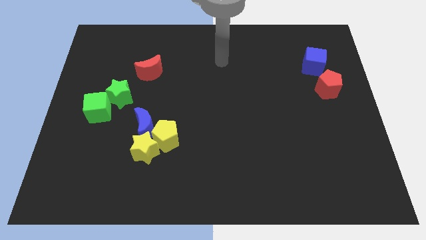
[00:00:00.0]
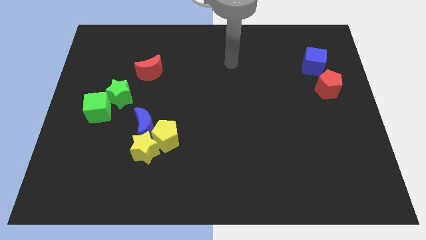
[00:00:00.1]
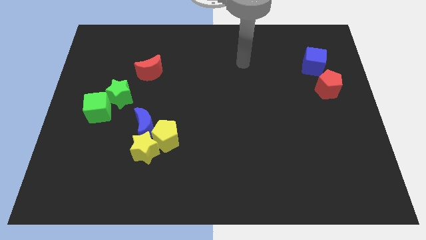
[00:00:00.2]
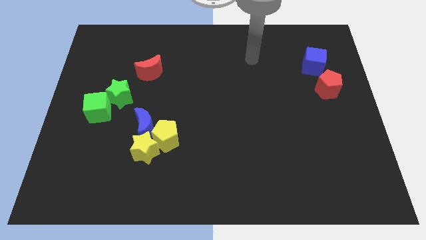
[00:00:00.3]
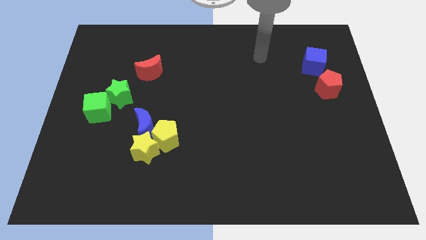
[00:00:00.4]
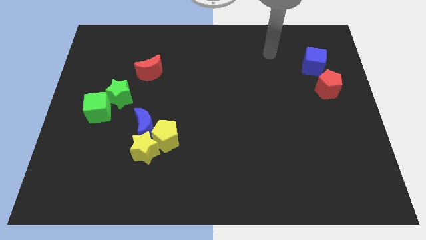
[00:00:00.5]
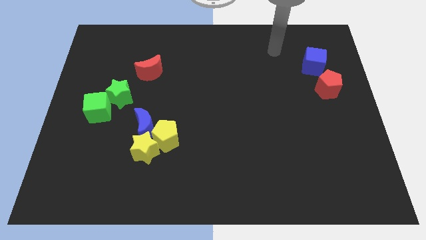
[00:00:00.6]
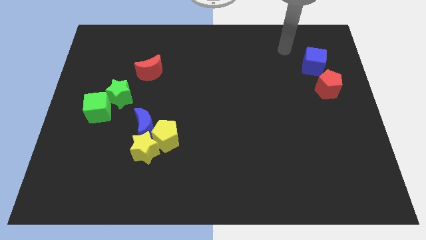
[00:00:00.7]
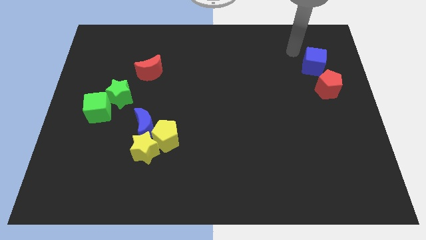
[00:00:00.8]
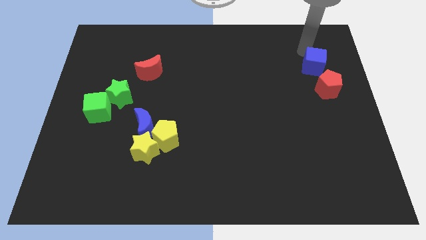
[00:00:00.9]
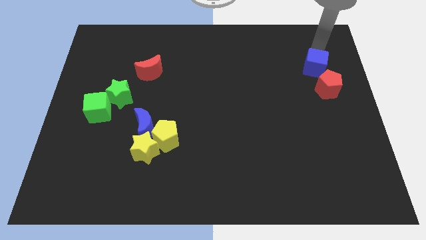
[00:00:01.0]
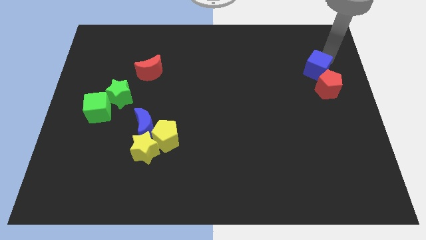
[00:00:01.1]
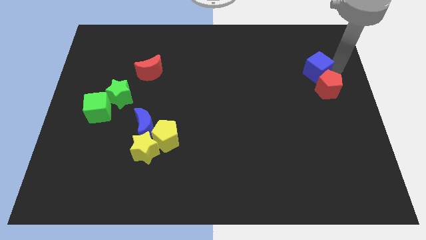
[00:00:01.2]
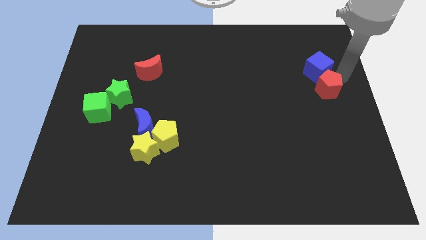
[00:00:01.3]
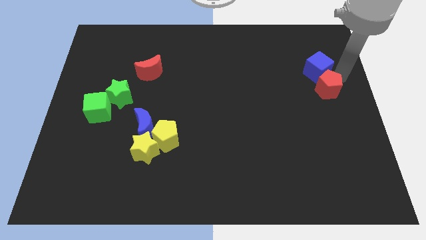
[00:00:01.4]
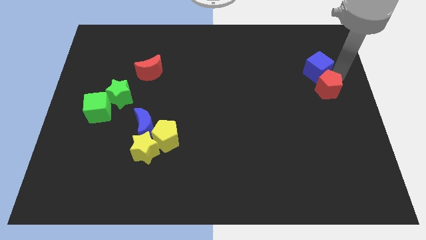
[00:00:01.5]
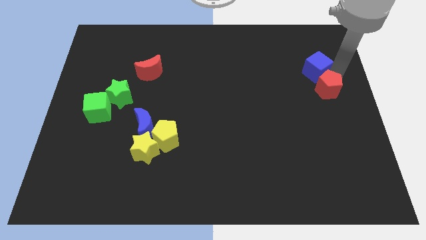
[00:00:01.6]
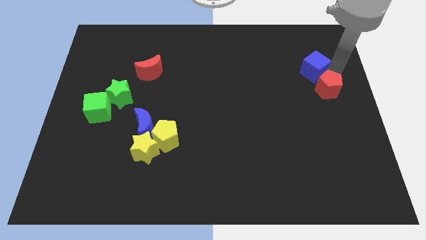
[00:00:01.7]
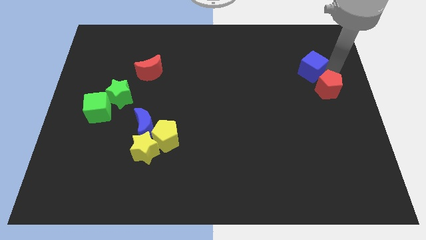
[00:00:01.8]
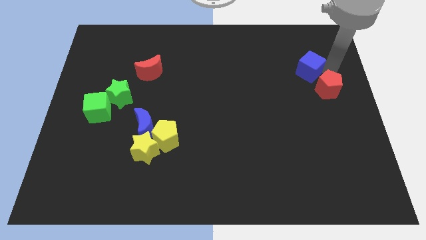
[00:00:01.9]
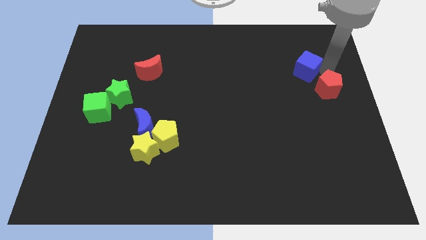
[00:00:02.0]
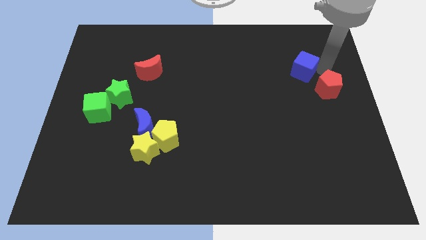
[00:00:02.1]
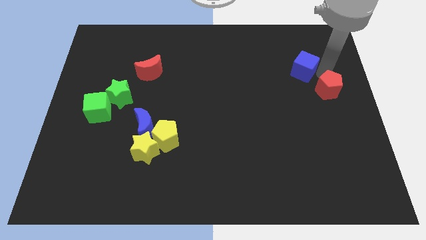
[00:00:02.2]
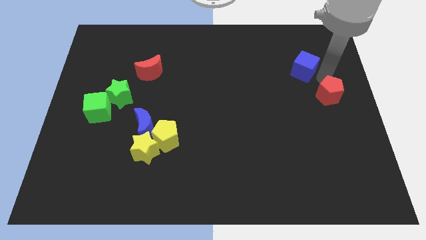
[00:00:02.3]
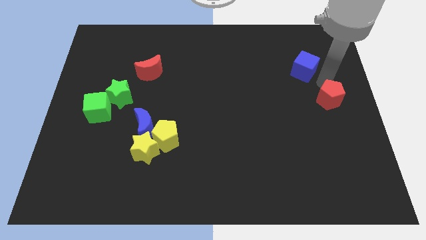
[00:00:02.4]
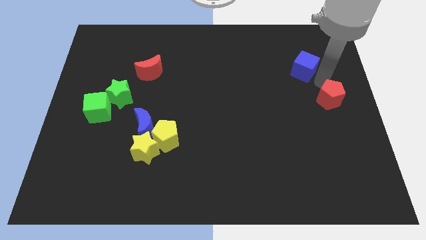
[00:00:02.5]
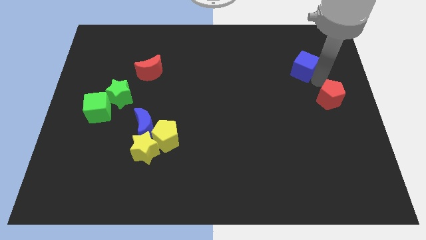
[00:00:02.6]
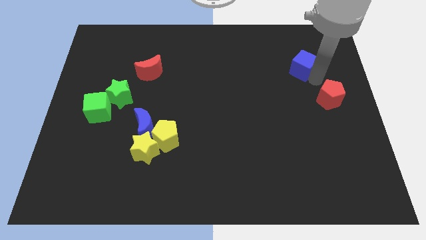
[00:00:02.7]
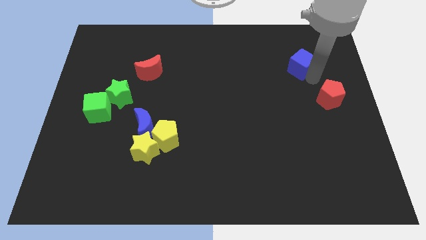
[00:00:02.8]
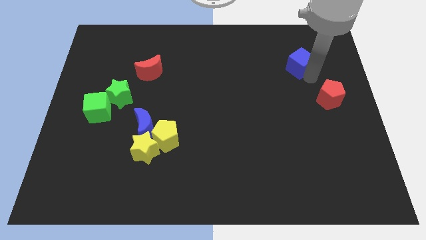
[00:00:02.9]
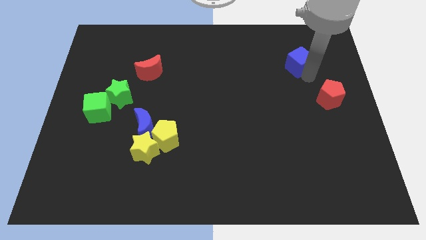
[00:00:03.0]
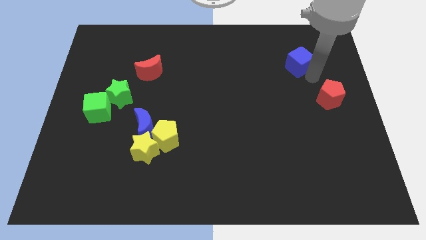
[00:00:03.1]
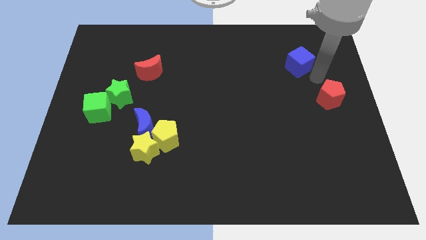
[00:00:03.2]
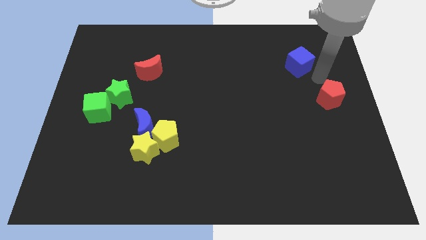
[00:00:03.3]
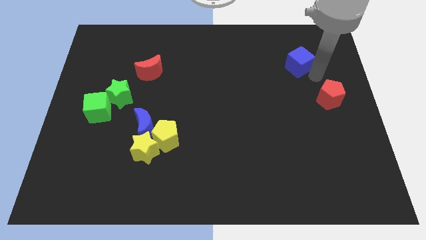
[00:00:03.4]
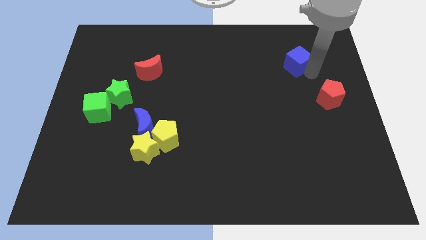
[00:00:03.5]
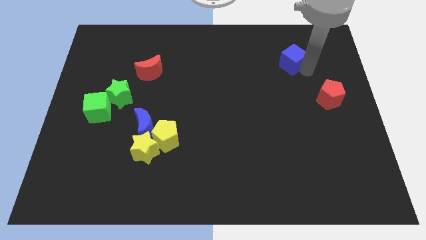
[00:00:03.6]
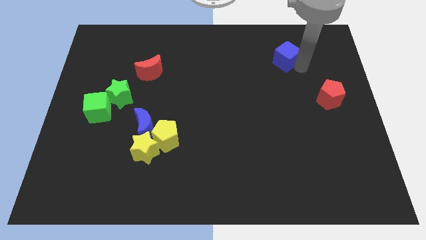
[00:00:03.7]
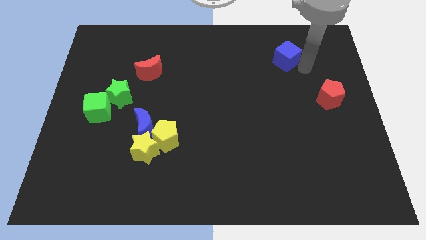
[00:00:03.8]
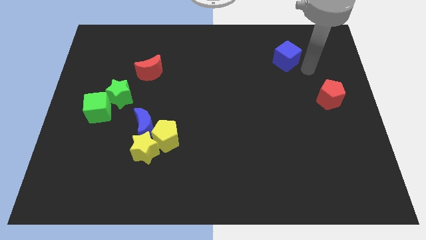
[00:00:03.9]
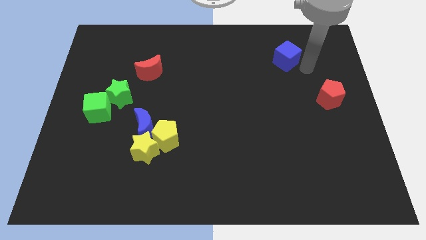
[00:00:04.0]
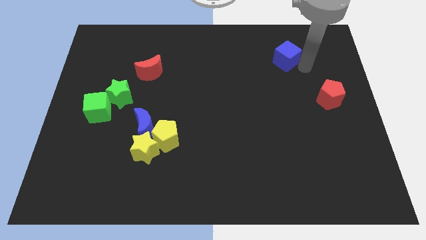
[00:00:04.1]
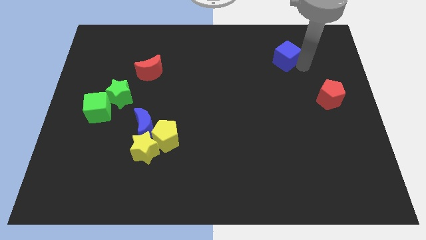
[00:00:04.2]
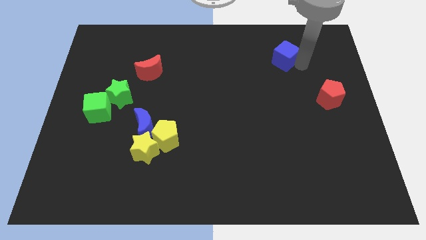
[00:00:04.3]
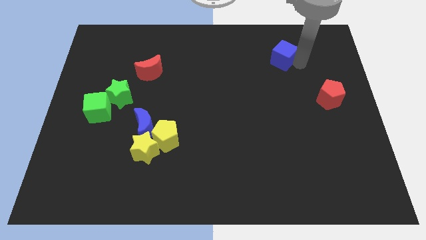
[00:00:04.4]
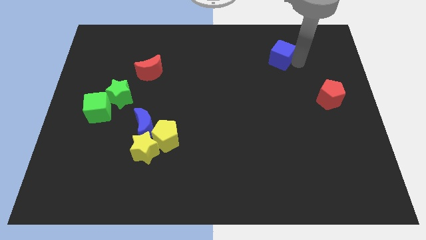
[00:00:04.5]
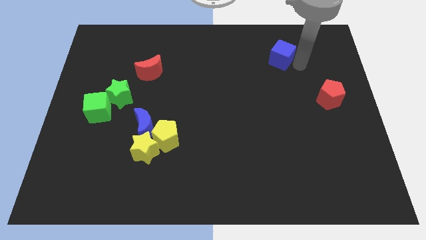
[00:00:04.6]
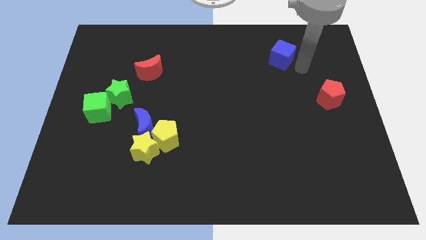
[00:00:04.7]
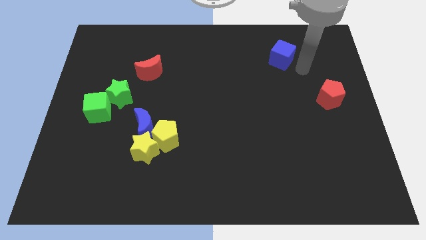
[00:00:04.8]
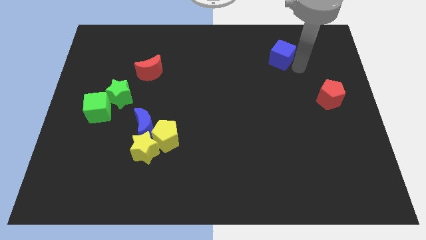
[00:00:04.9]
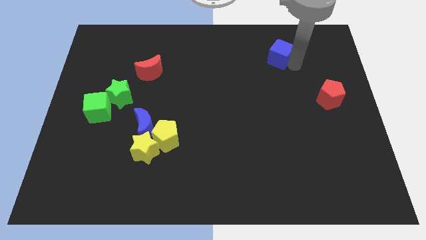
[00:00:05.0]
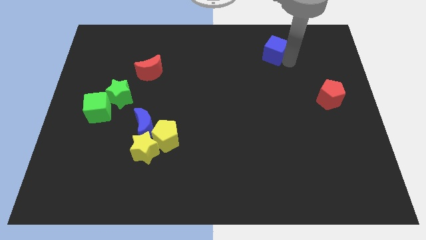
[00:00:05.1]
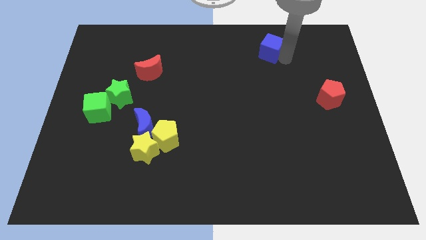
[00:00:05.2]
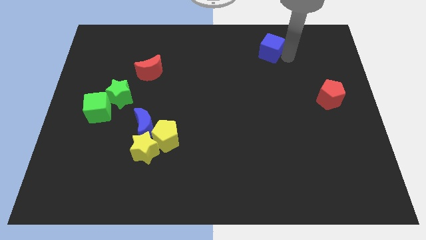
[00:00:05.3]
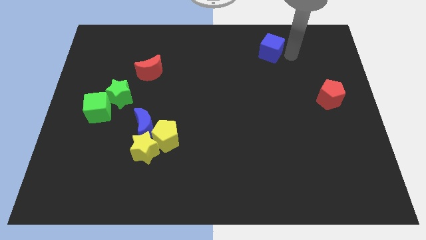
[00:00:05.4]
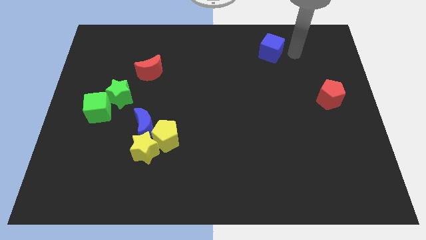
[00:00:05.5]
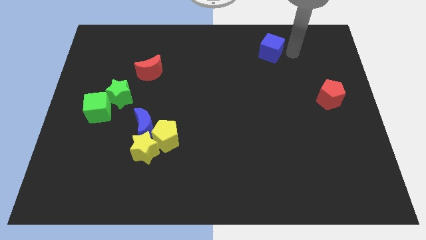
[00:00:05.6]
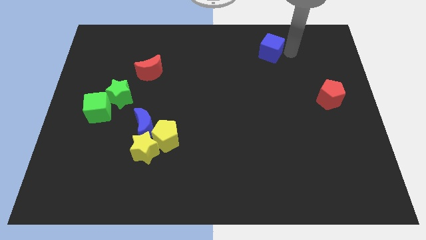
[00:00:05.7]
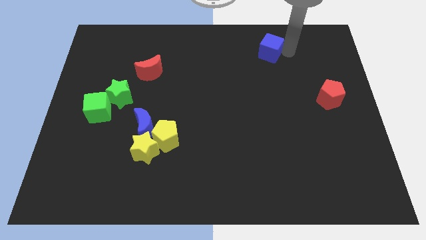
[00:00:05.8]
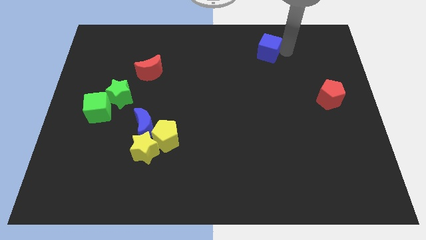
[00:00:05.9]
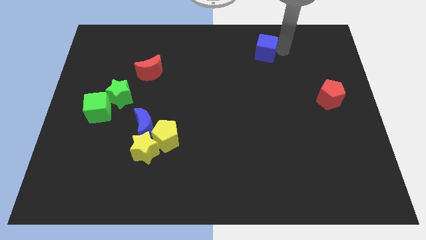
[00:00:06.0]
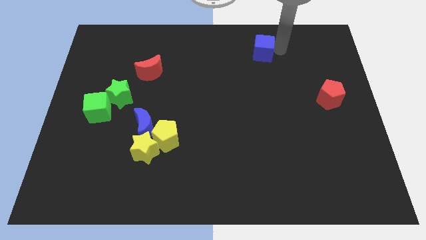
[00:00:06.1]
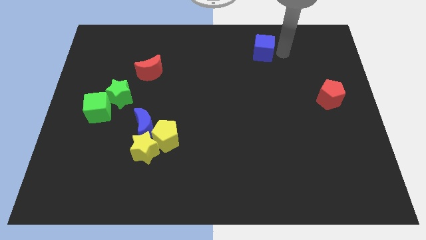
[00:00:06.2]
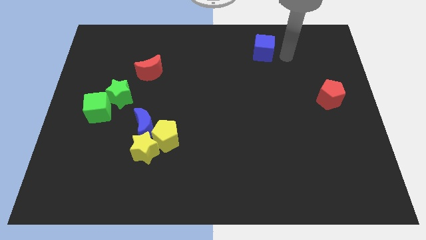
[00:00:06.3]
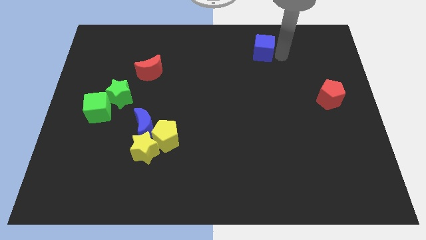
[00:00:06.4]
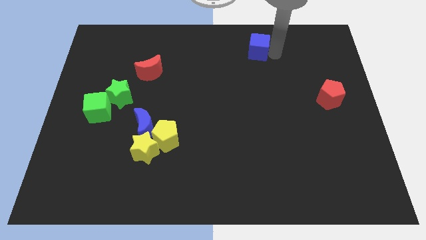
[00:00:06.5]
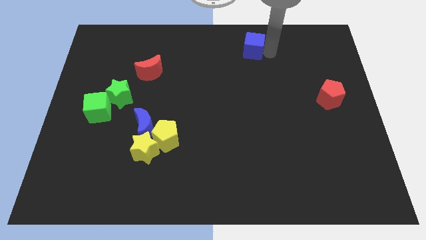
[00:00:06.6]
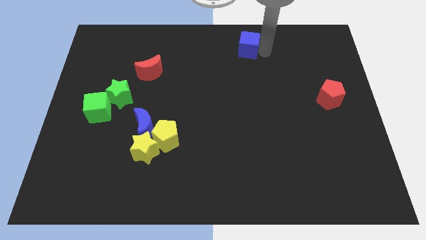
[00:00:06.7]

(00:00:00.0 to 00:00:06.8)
slide the blue cube to the top side
